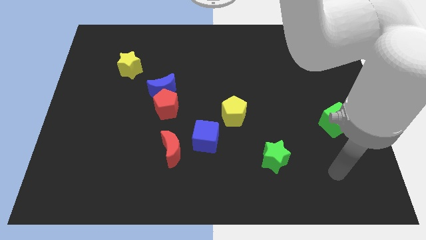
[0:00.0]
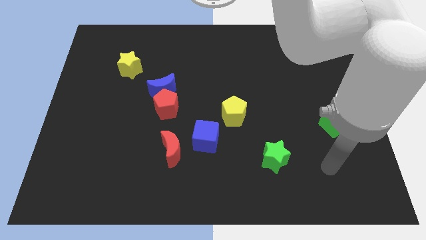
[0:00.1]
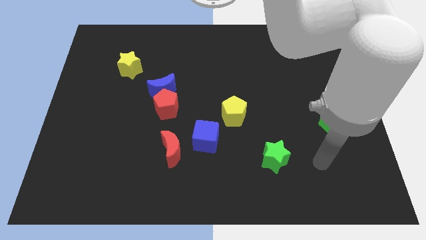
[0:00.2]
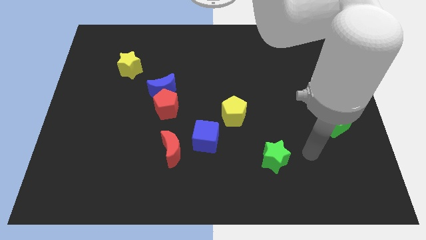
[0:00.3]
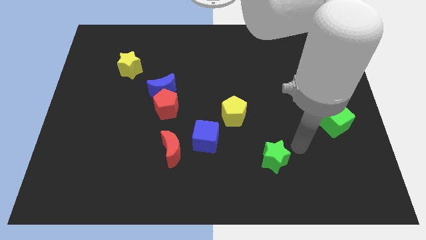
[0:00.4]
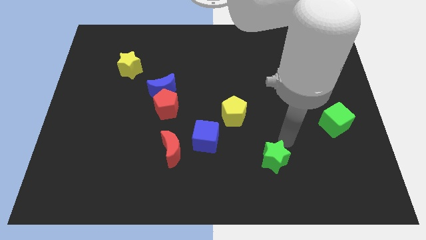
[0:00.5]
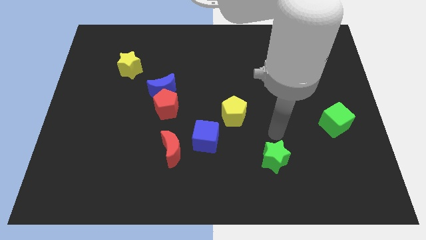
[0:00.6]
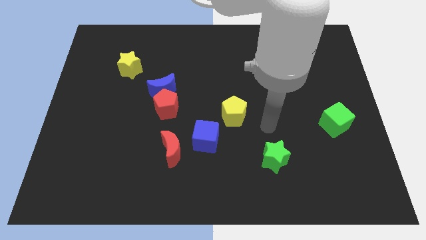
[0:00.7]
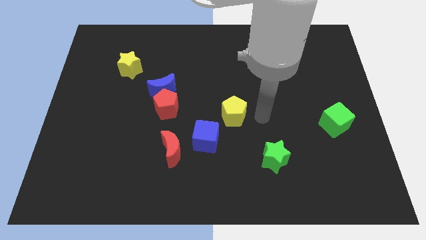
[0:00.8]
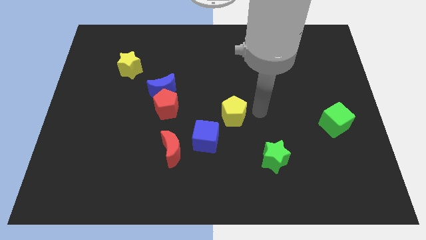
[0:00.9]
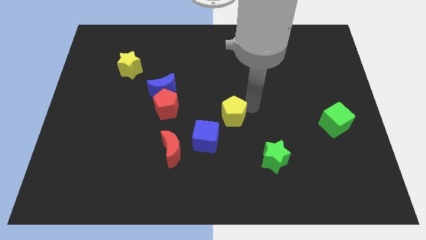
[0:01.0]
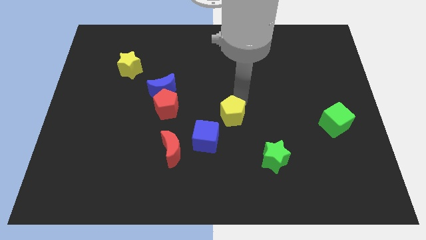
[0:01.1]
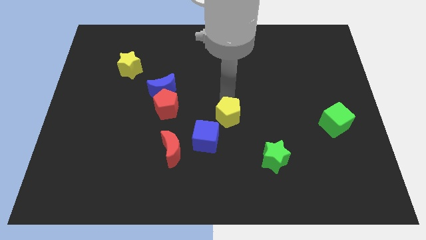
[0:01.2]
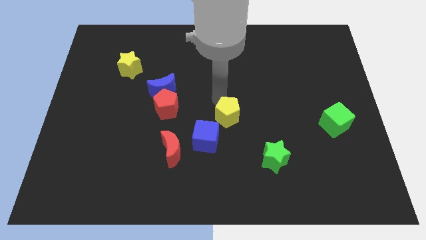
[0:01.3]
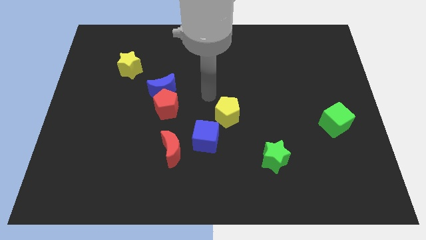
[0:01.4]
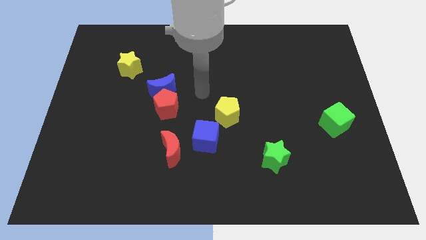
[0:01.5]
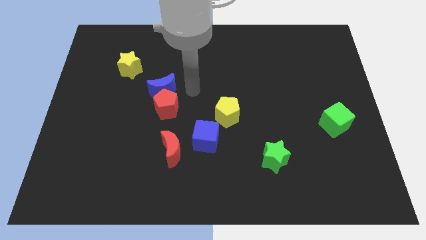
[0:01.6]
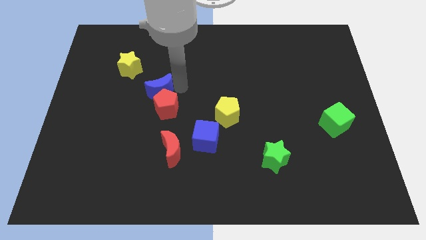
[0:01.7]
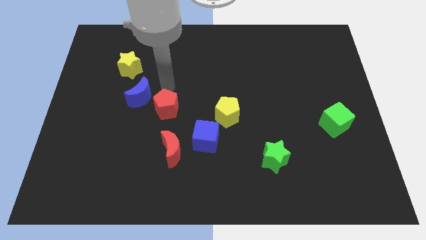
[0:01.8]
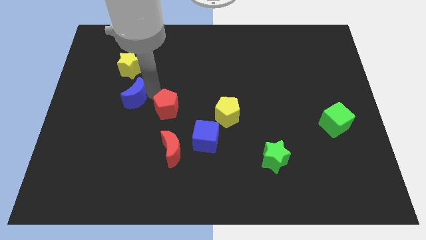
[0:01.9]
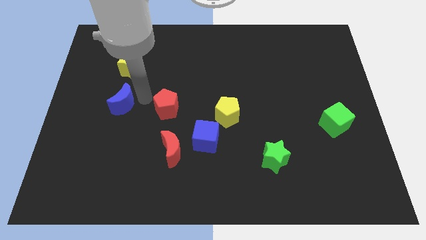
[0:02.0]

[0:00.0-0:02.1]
pull the red pentagon apart from the blue moon

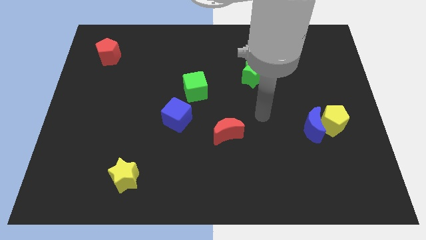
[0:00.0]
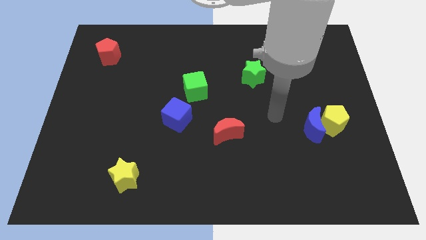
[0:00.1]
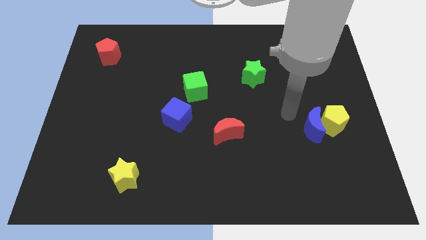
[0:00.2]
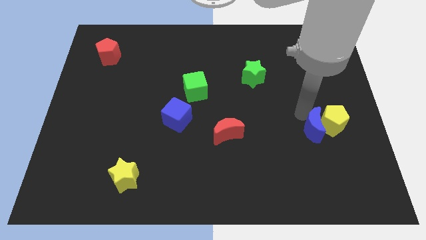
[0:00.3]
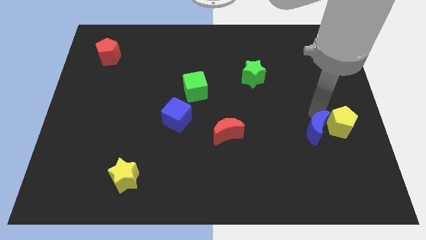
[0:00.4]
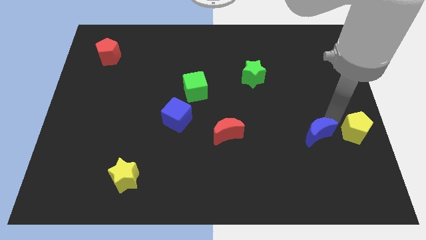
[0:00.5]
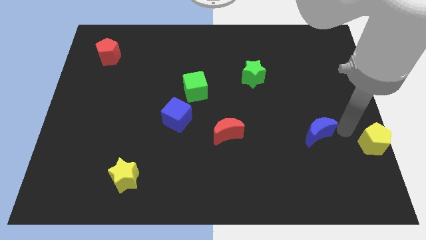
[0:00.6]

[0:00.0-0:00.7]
move the blue moon away from the yellow pentagon

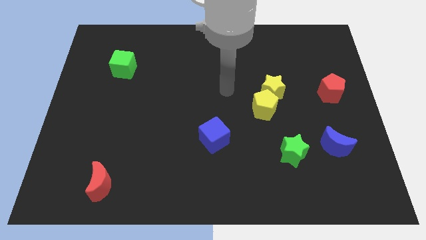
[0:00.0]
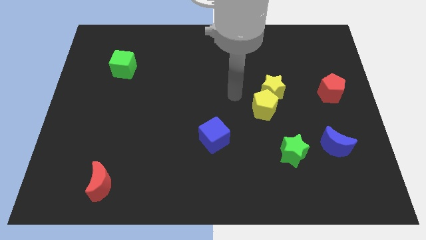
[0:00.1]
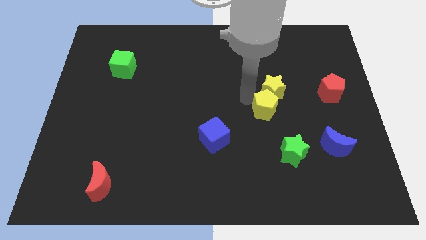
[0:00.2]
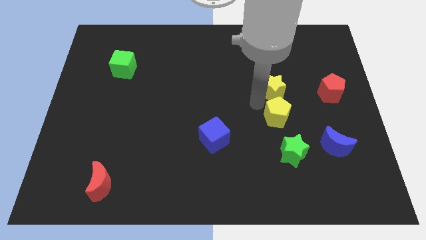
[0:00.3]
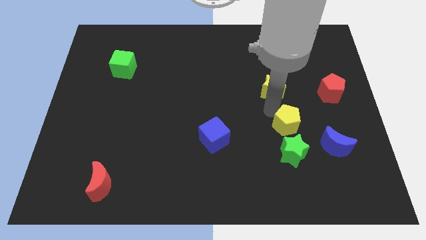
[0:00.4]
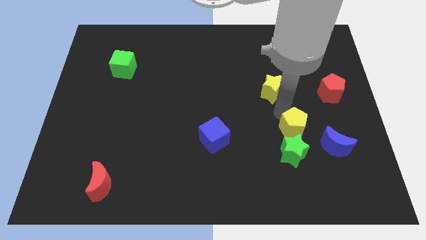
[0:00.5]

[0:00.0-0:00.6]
separate the yellow star from the yellow pentagon

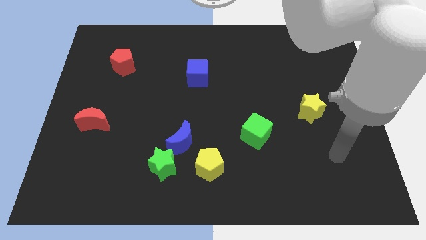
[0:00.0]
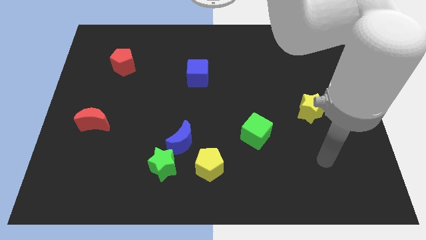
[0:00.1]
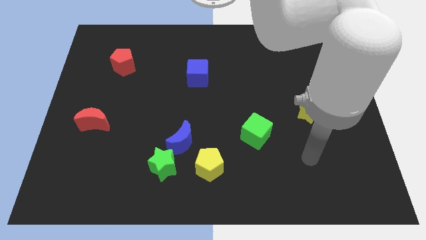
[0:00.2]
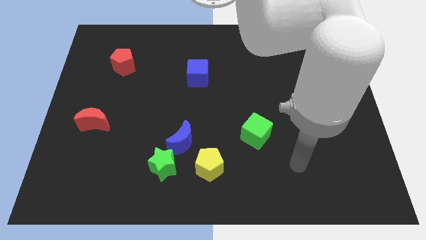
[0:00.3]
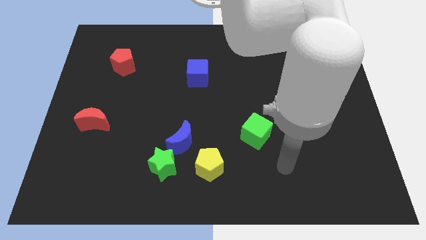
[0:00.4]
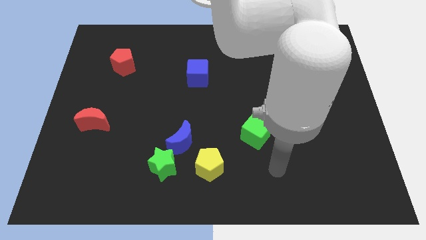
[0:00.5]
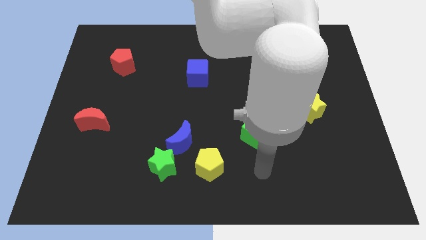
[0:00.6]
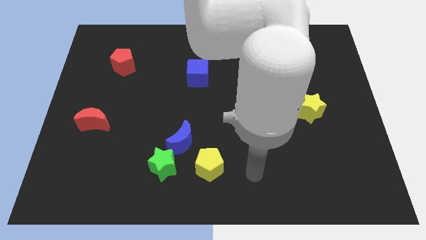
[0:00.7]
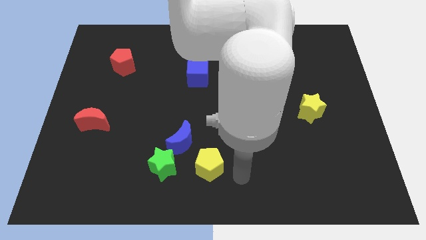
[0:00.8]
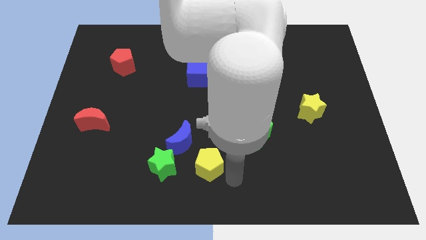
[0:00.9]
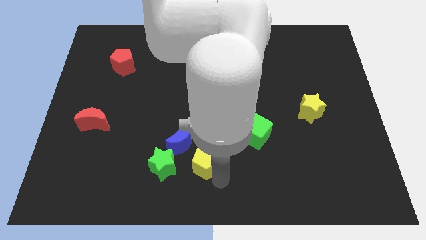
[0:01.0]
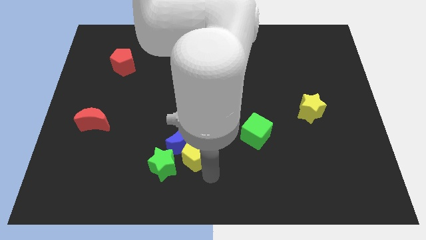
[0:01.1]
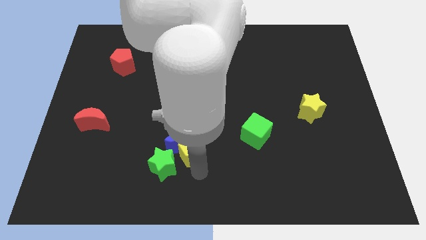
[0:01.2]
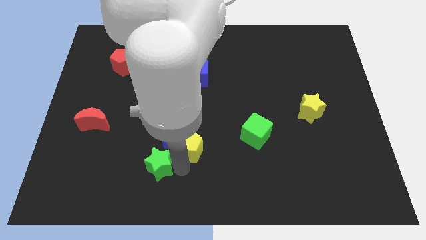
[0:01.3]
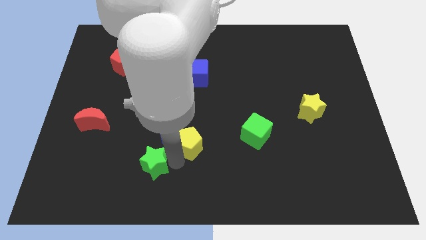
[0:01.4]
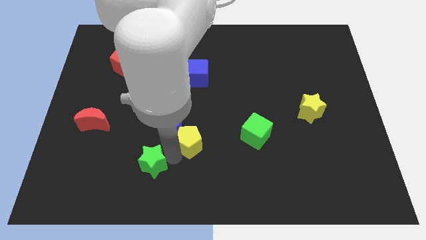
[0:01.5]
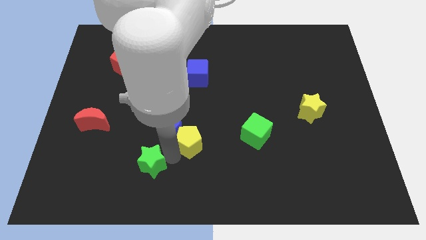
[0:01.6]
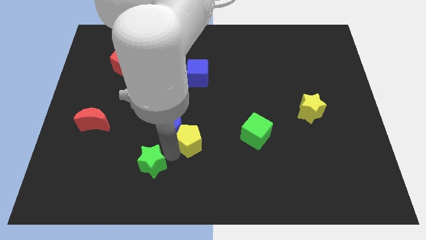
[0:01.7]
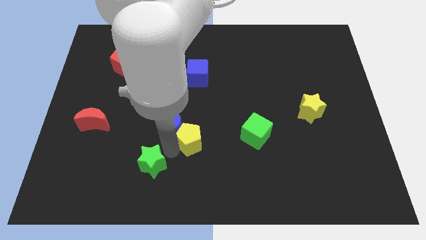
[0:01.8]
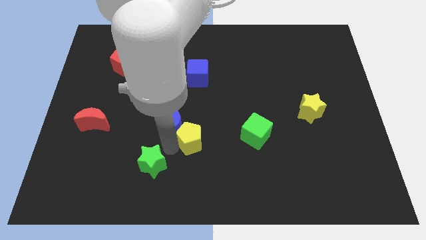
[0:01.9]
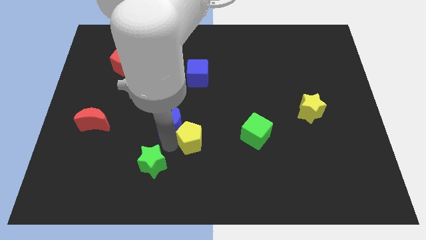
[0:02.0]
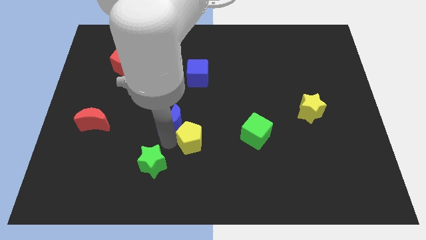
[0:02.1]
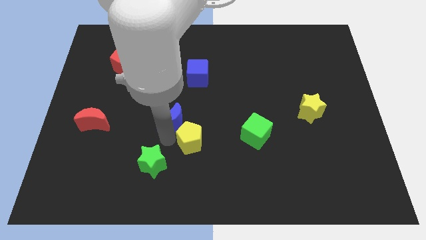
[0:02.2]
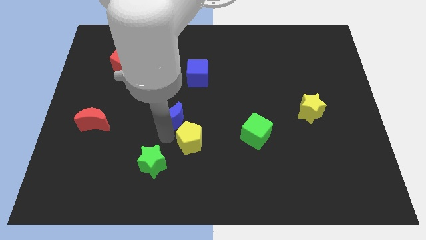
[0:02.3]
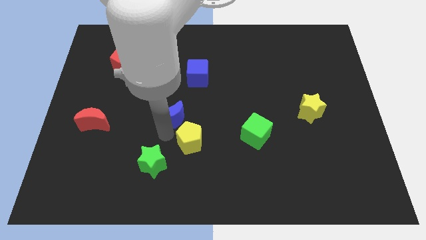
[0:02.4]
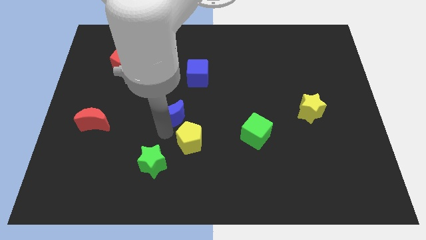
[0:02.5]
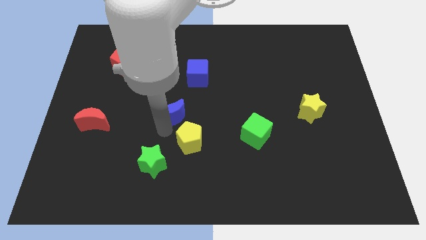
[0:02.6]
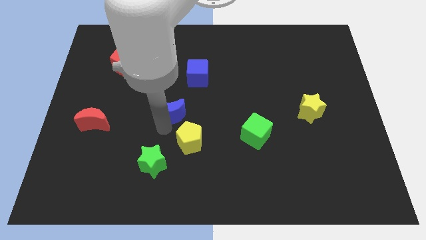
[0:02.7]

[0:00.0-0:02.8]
separate the blue moon from the green star and yellow pentagon

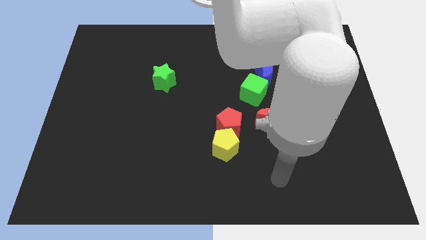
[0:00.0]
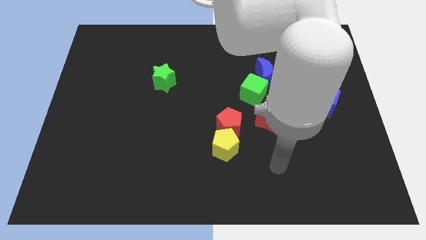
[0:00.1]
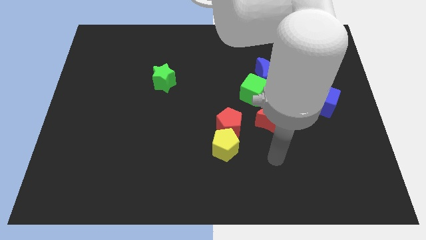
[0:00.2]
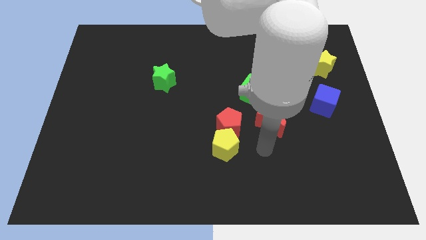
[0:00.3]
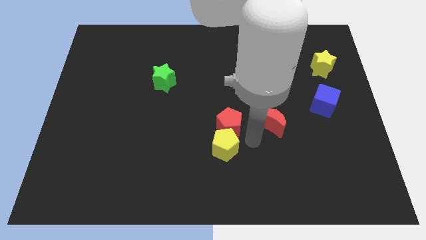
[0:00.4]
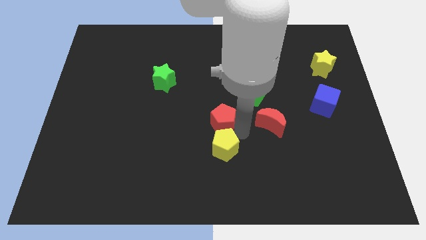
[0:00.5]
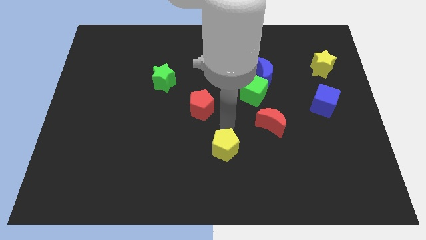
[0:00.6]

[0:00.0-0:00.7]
move the yellow pentagon away from the red pentagon

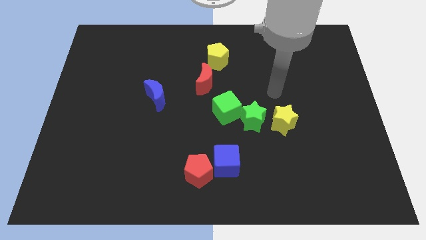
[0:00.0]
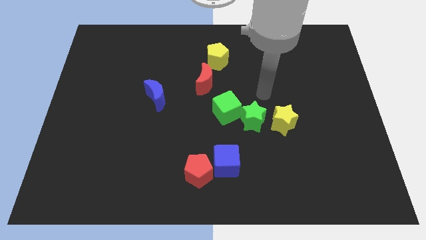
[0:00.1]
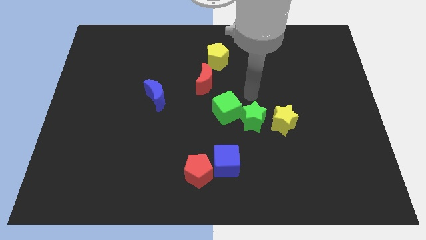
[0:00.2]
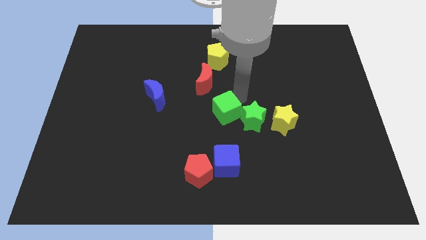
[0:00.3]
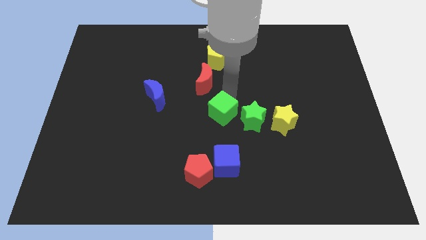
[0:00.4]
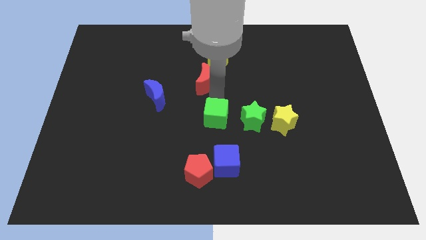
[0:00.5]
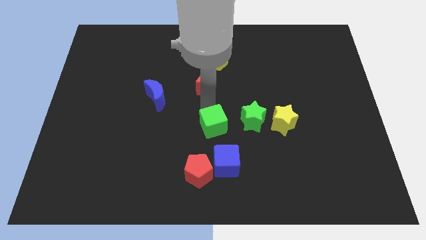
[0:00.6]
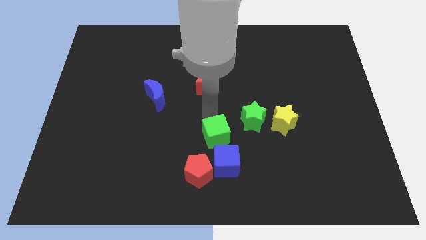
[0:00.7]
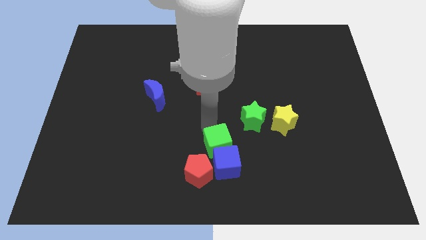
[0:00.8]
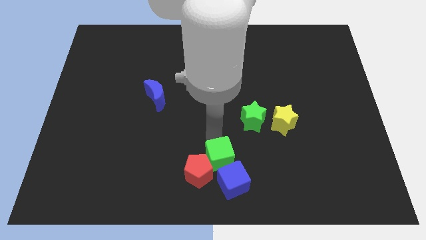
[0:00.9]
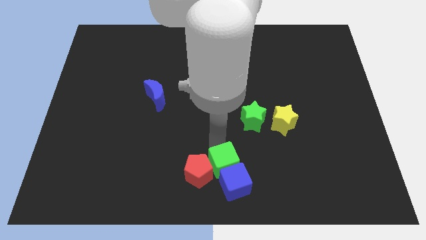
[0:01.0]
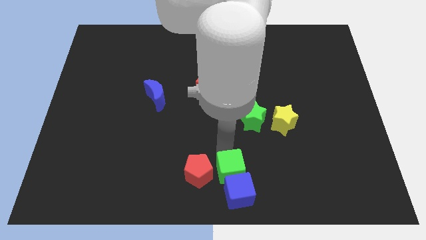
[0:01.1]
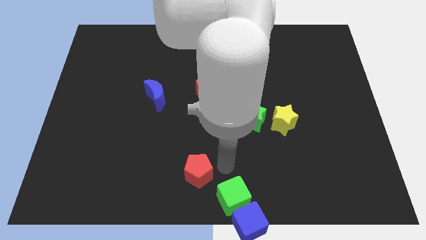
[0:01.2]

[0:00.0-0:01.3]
move the red pentagon away from the blue cube

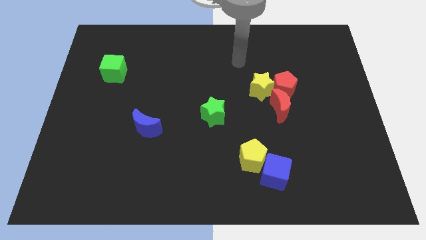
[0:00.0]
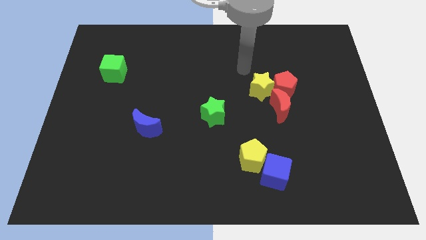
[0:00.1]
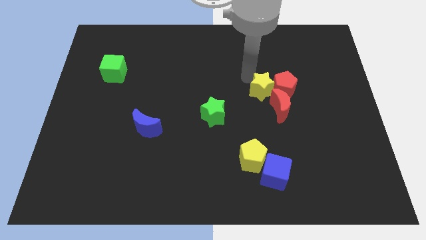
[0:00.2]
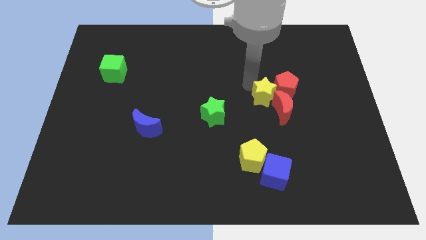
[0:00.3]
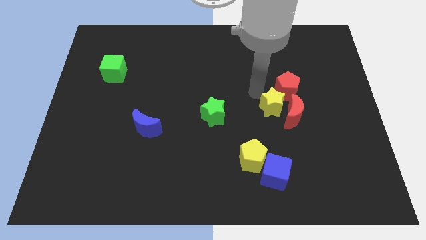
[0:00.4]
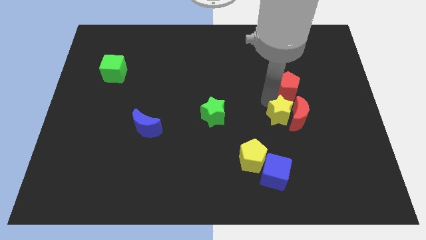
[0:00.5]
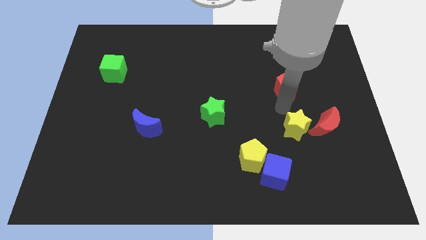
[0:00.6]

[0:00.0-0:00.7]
move the red pentagon away from the yellow star and red moon

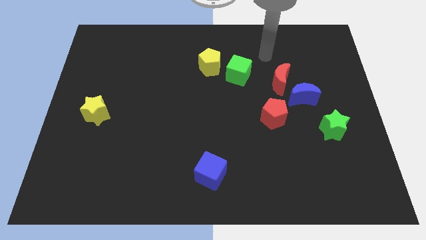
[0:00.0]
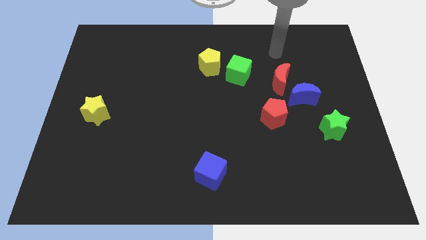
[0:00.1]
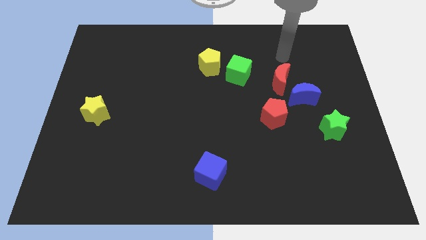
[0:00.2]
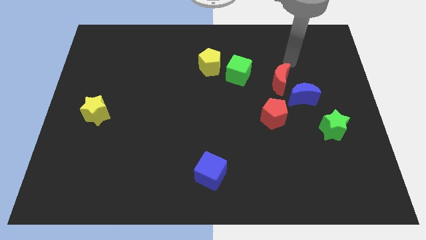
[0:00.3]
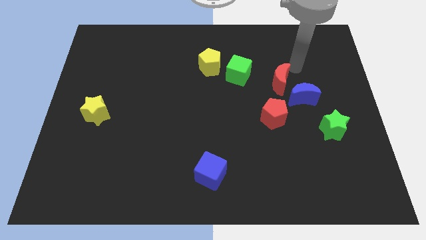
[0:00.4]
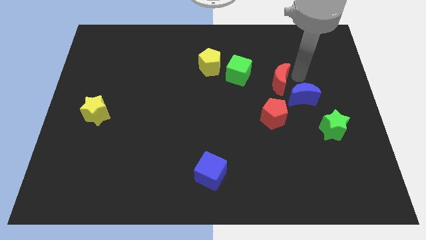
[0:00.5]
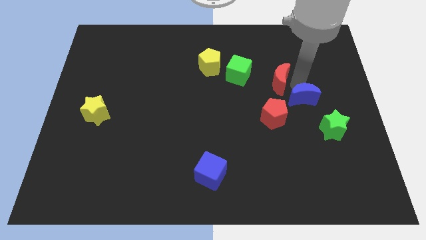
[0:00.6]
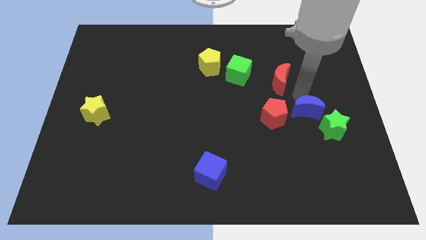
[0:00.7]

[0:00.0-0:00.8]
move the red moon away from the blue moon
